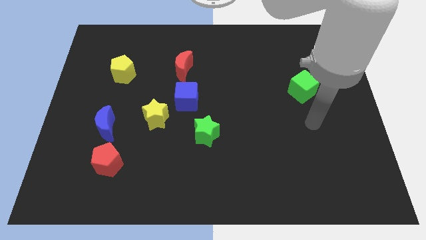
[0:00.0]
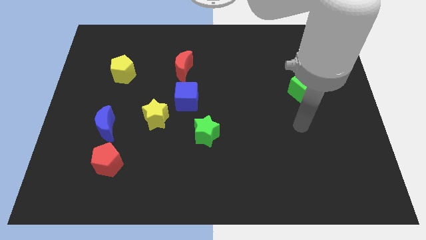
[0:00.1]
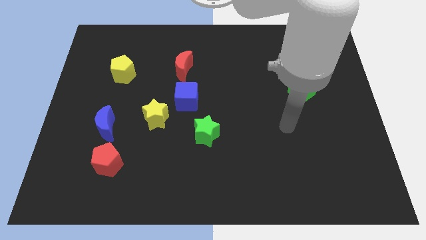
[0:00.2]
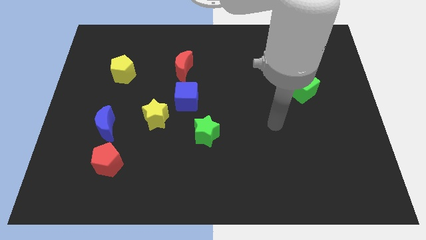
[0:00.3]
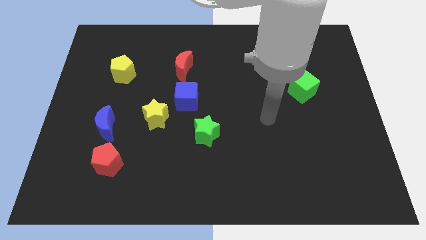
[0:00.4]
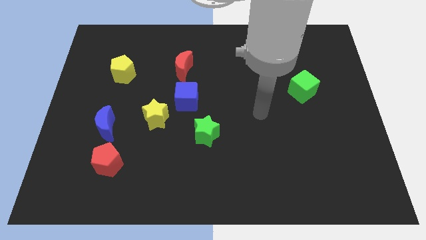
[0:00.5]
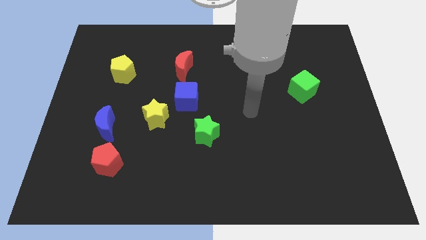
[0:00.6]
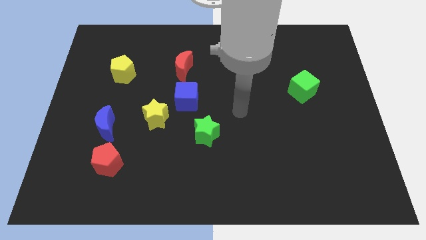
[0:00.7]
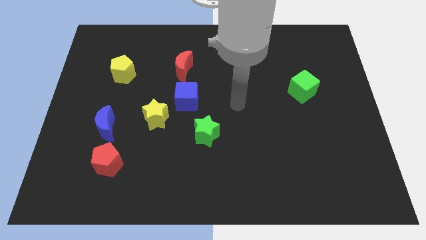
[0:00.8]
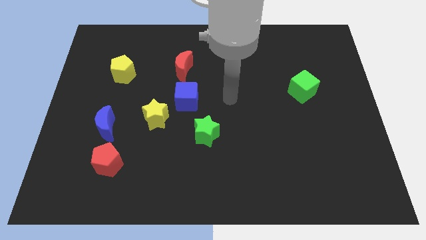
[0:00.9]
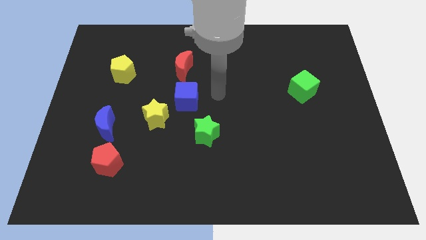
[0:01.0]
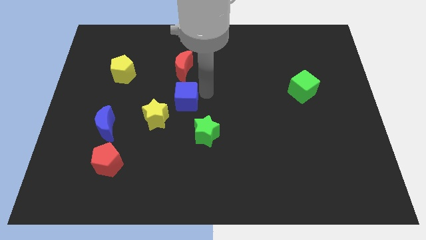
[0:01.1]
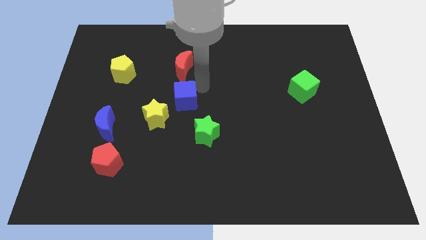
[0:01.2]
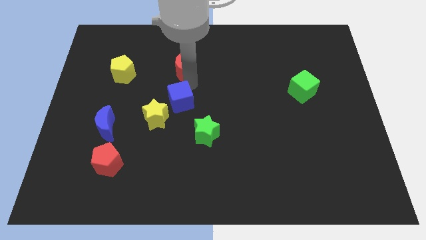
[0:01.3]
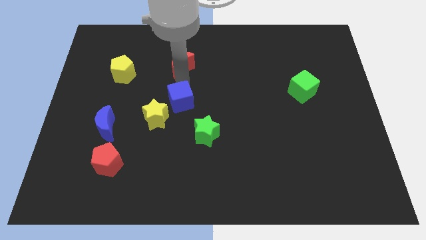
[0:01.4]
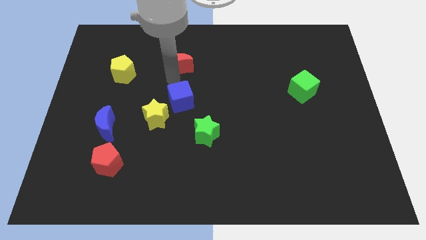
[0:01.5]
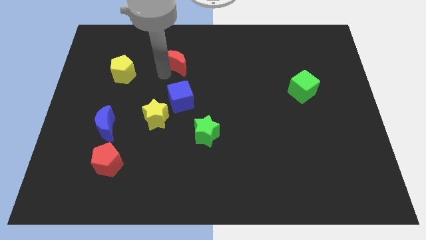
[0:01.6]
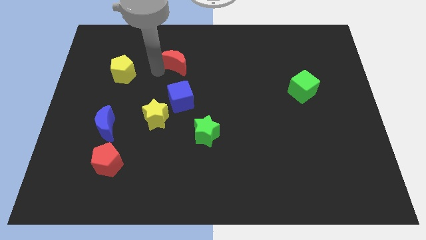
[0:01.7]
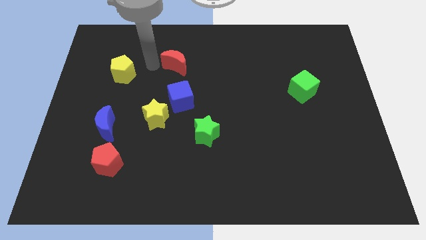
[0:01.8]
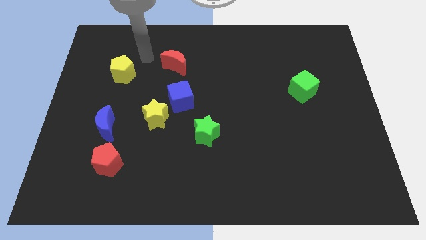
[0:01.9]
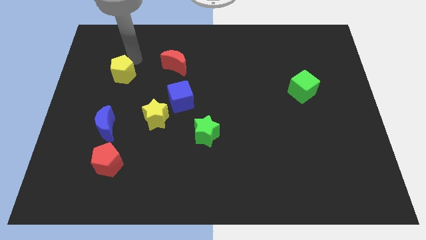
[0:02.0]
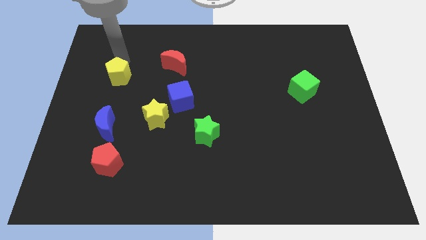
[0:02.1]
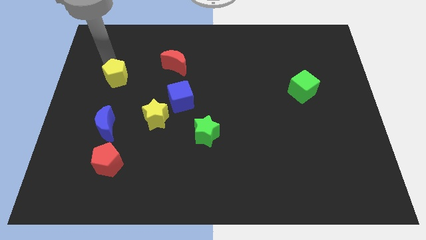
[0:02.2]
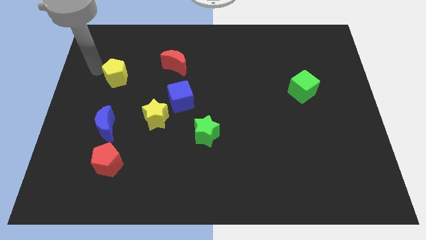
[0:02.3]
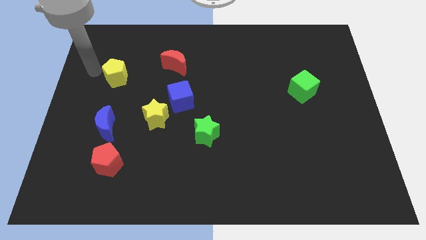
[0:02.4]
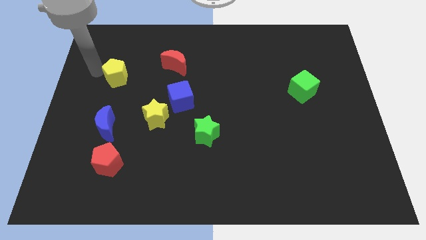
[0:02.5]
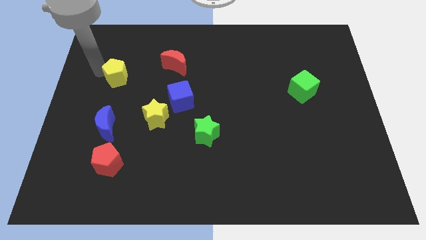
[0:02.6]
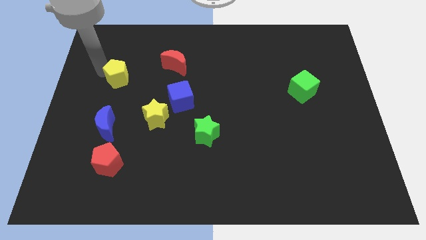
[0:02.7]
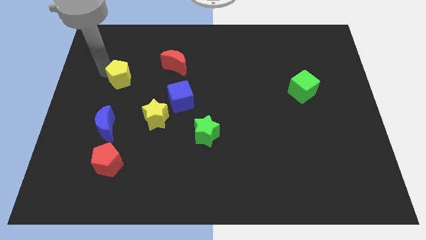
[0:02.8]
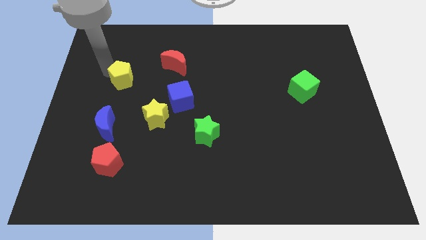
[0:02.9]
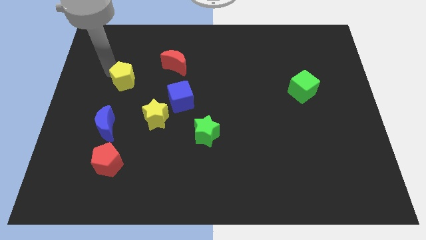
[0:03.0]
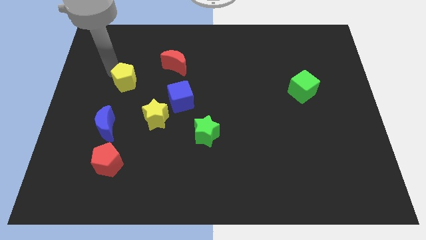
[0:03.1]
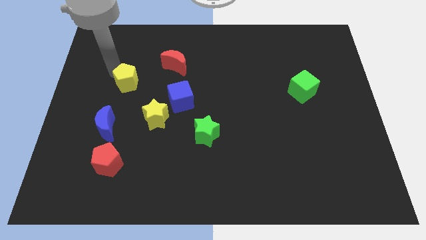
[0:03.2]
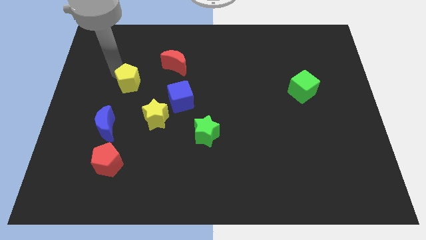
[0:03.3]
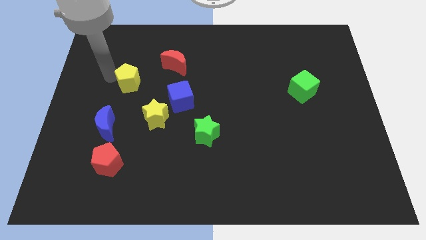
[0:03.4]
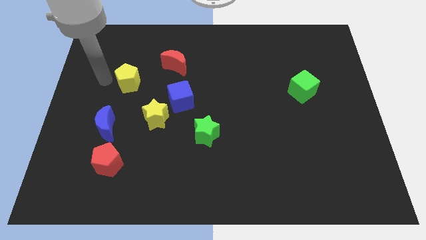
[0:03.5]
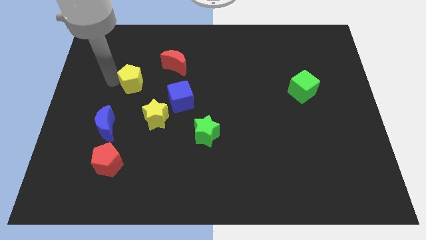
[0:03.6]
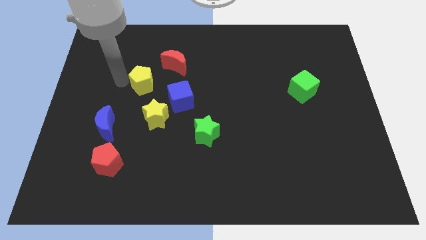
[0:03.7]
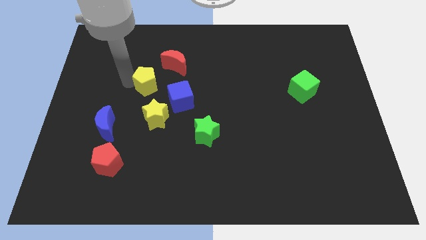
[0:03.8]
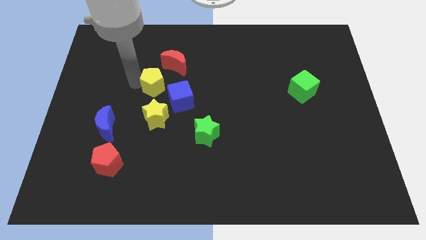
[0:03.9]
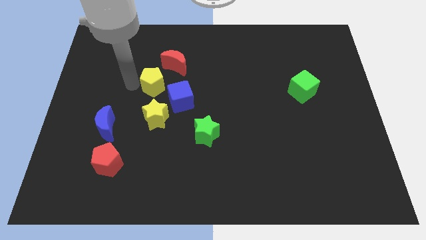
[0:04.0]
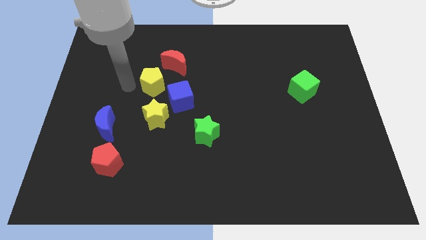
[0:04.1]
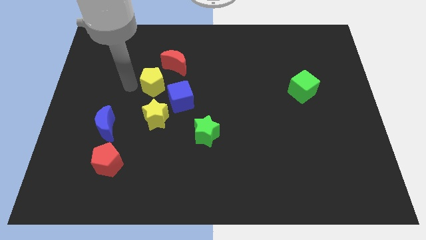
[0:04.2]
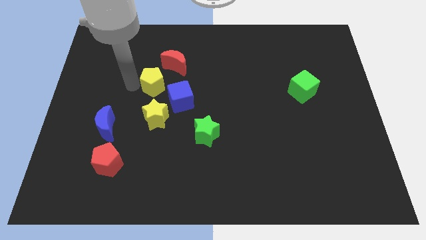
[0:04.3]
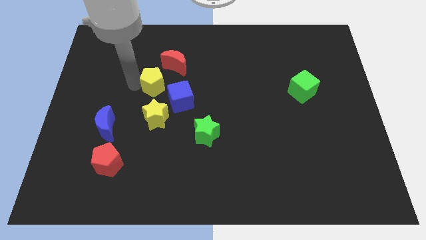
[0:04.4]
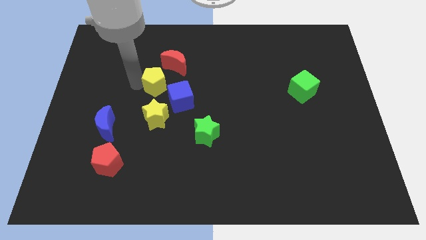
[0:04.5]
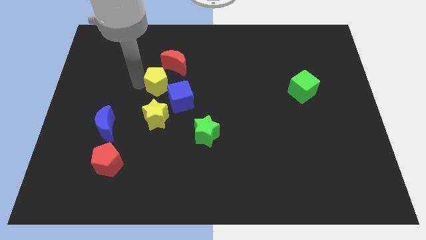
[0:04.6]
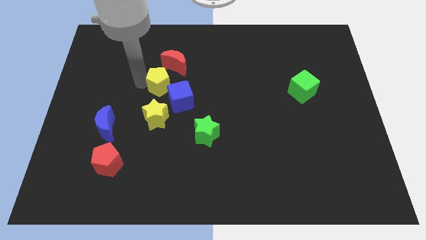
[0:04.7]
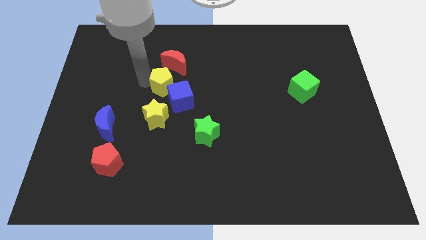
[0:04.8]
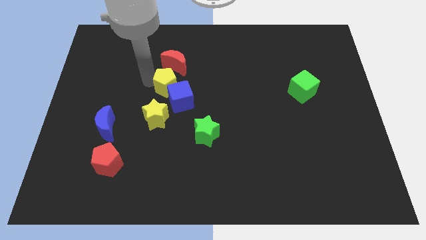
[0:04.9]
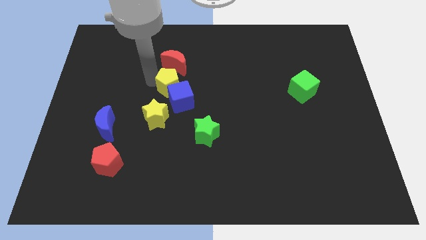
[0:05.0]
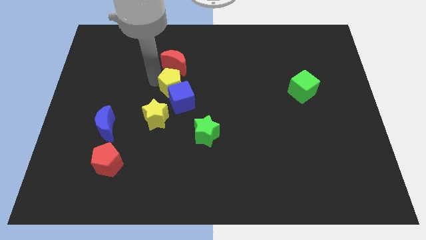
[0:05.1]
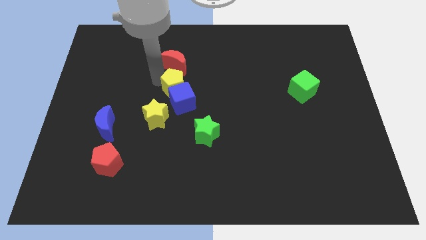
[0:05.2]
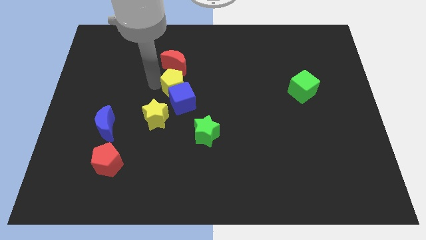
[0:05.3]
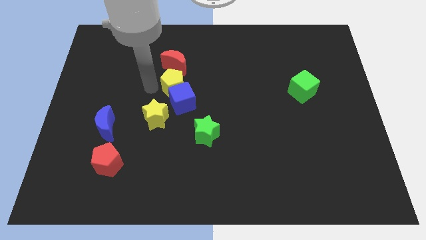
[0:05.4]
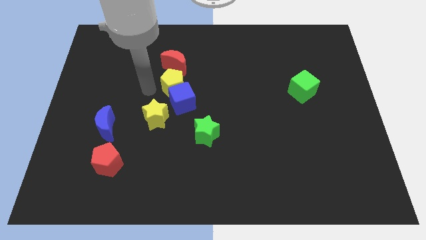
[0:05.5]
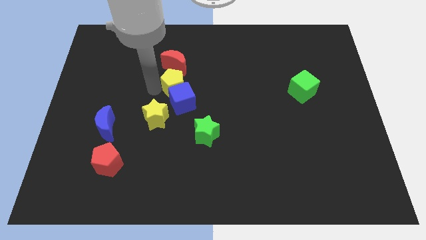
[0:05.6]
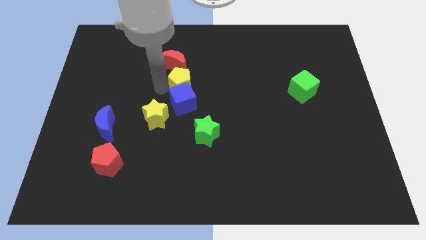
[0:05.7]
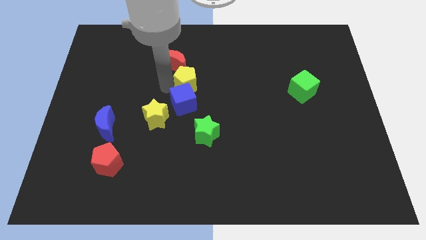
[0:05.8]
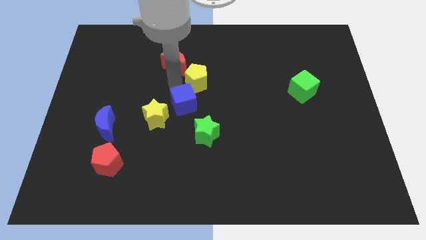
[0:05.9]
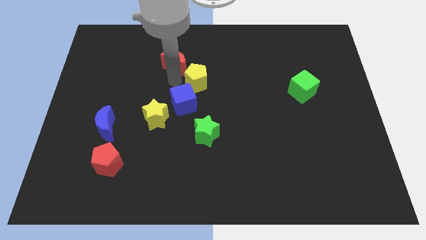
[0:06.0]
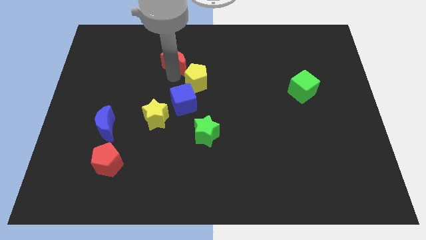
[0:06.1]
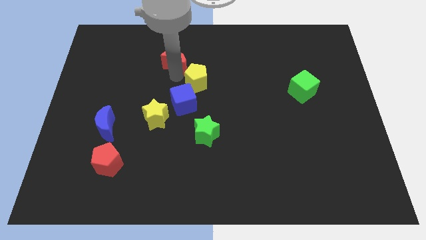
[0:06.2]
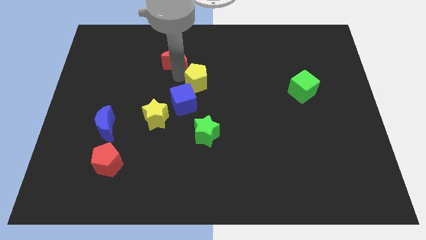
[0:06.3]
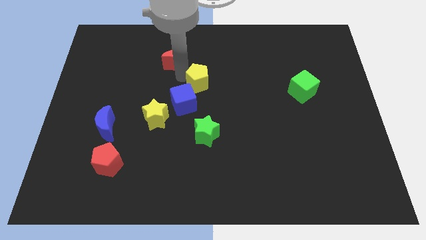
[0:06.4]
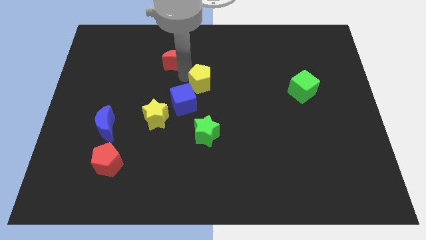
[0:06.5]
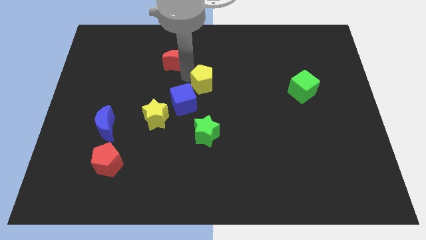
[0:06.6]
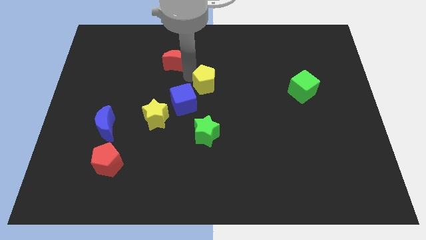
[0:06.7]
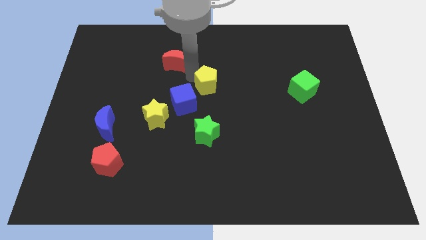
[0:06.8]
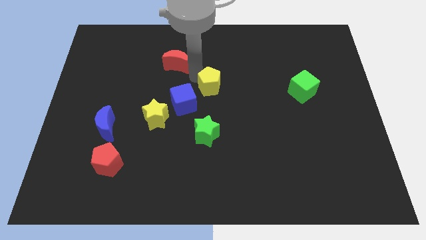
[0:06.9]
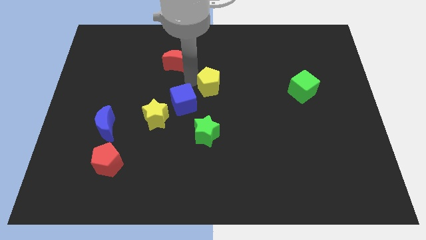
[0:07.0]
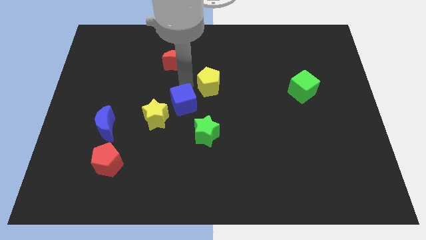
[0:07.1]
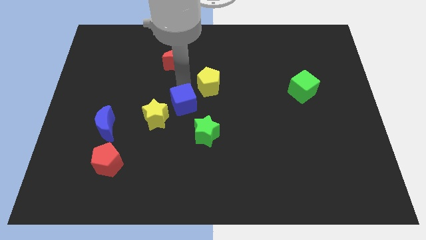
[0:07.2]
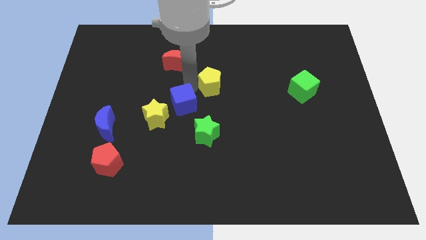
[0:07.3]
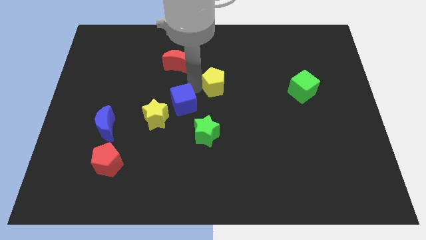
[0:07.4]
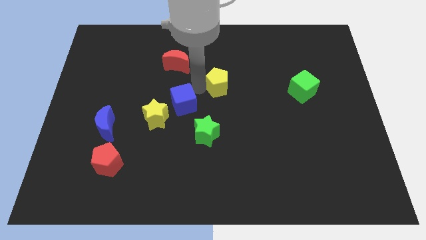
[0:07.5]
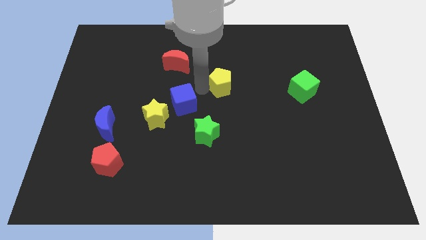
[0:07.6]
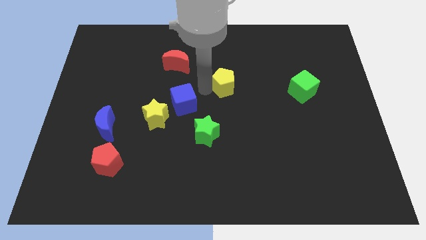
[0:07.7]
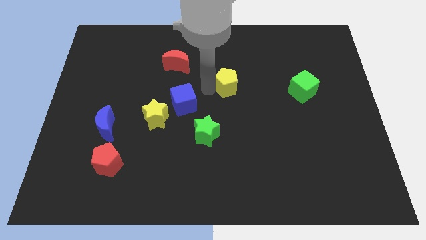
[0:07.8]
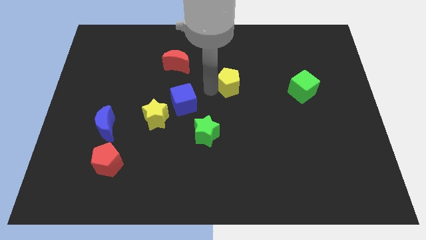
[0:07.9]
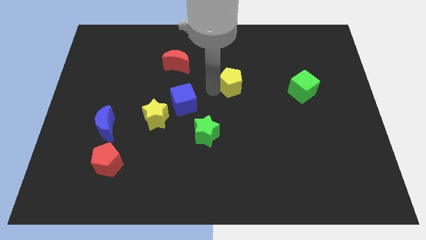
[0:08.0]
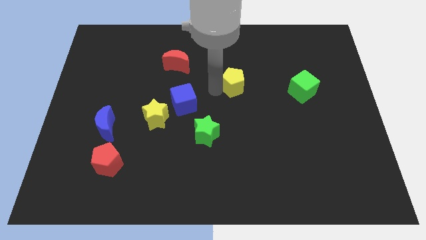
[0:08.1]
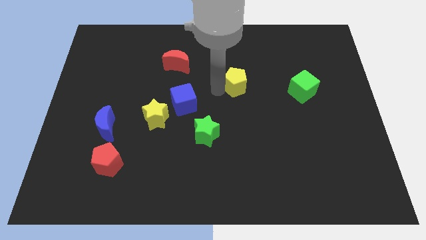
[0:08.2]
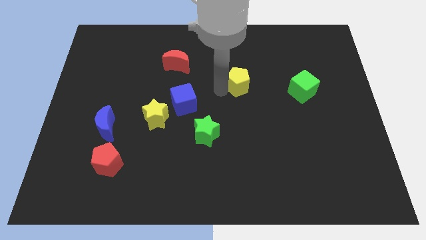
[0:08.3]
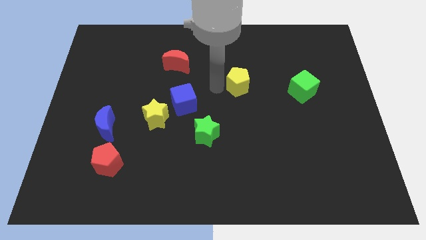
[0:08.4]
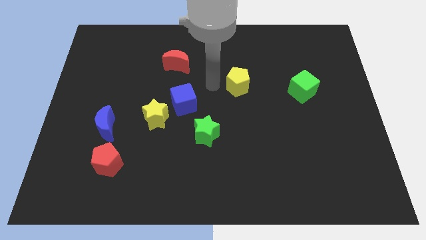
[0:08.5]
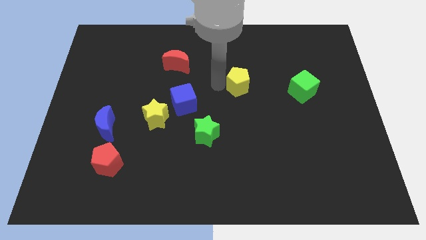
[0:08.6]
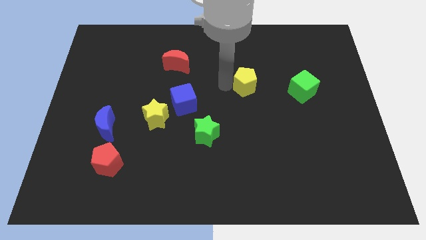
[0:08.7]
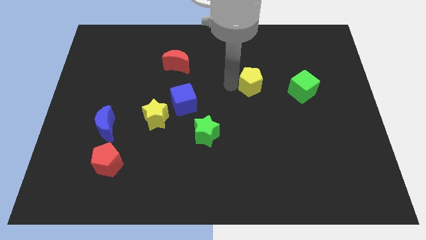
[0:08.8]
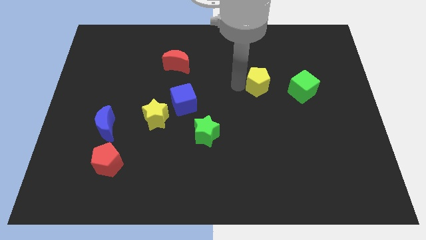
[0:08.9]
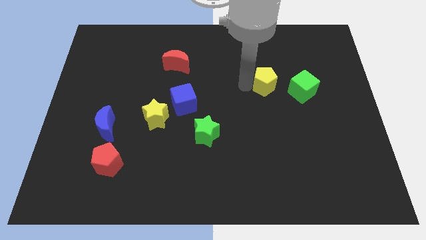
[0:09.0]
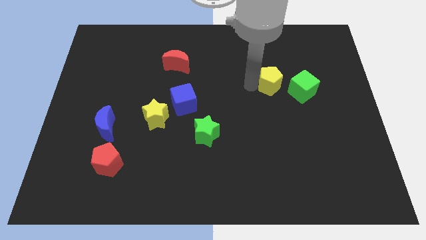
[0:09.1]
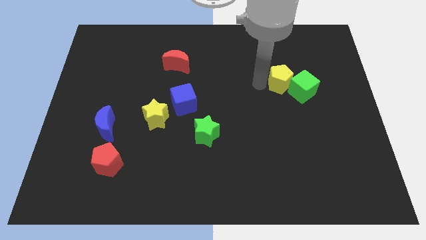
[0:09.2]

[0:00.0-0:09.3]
push the yellow pentagon towards the green cube
